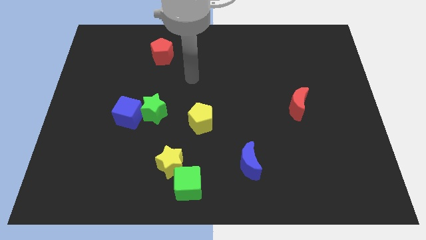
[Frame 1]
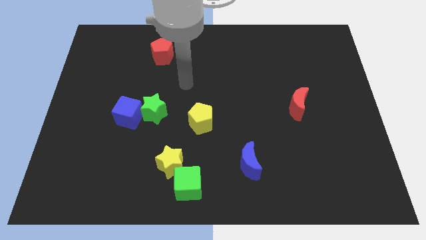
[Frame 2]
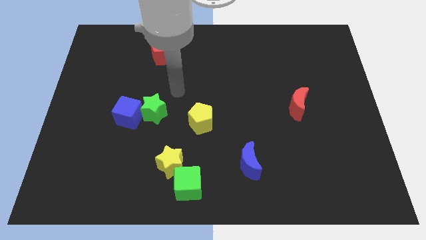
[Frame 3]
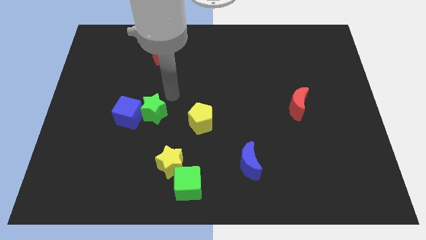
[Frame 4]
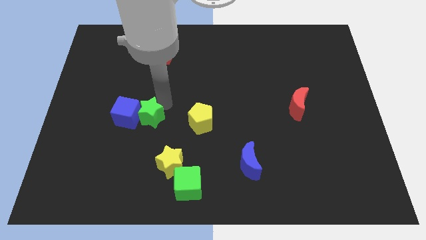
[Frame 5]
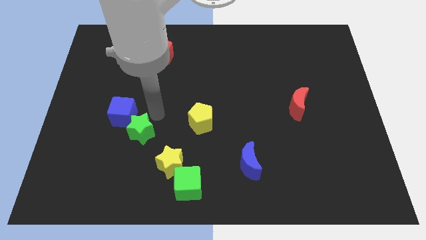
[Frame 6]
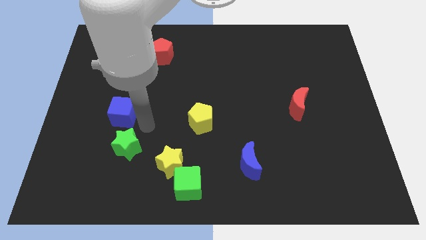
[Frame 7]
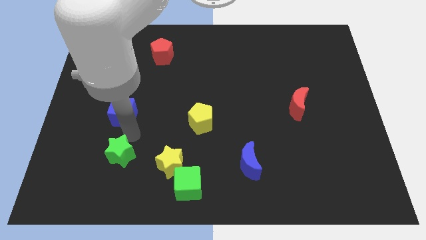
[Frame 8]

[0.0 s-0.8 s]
move the blue cube away from the green star

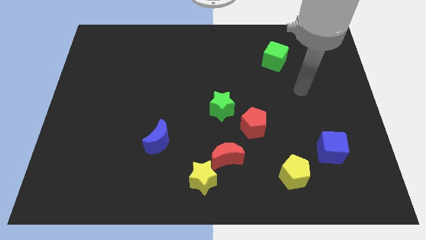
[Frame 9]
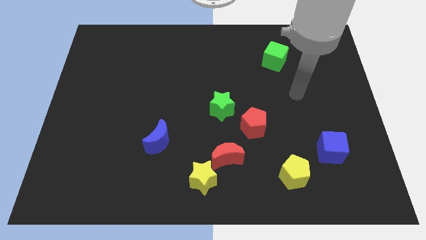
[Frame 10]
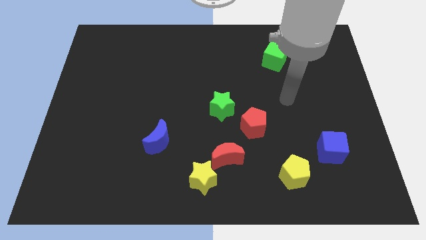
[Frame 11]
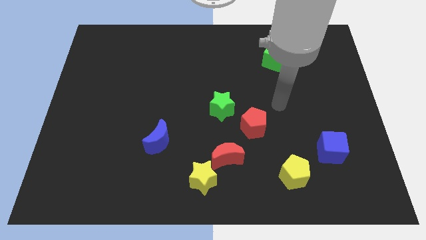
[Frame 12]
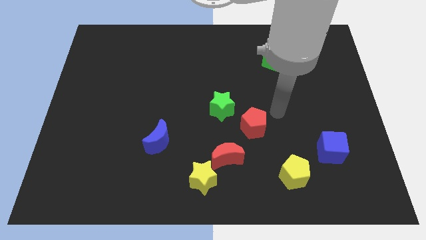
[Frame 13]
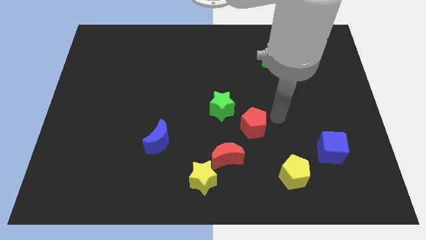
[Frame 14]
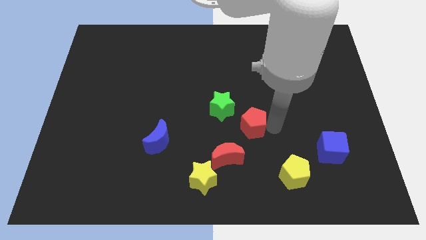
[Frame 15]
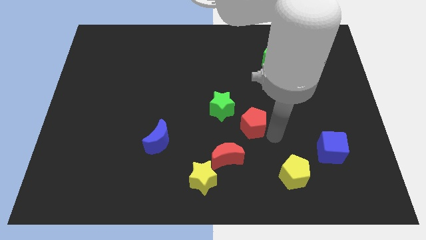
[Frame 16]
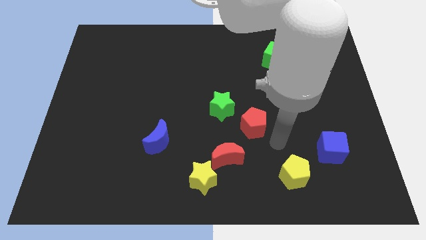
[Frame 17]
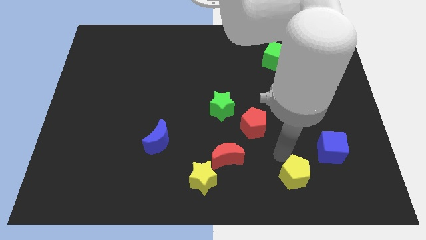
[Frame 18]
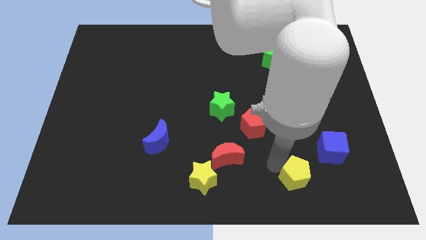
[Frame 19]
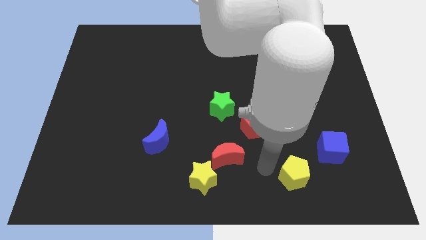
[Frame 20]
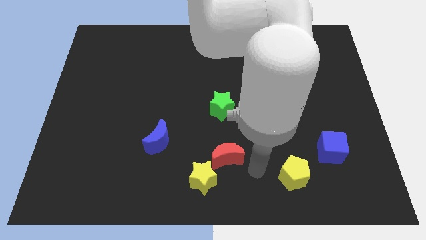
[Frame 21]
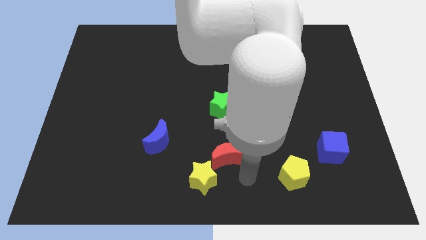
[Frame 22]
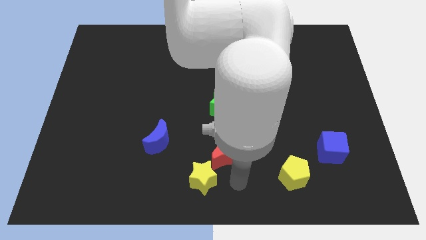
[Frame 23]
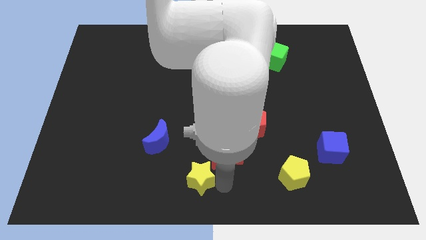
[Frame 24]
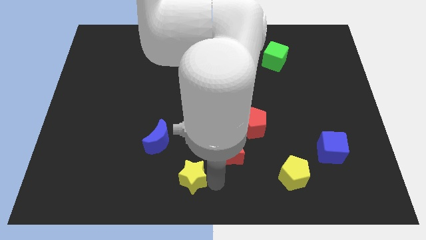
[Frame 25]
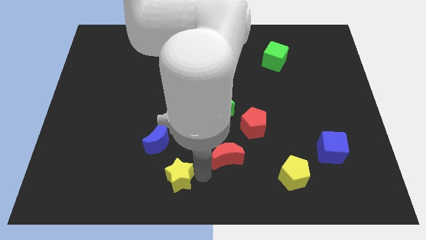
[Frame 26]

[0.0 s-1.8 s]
pull the red moon apart from the yellow star

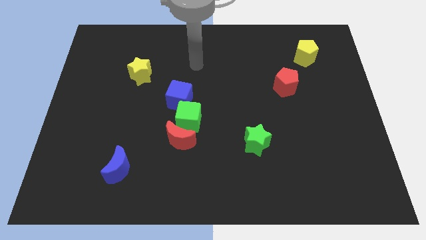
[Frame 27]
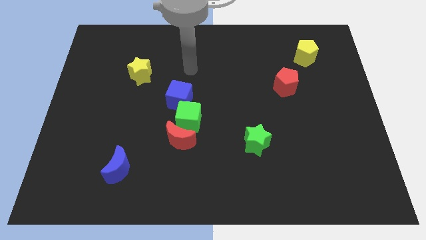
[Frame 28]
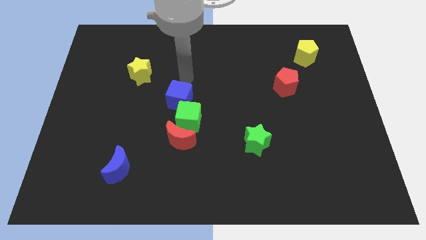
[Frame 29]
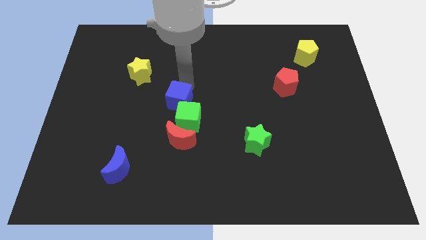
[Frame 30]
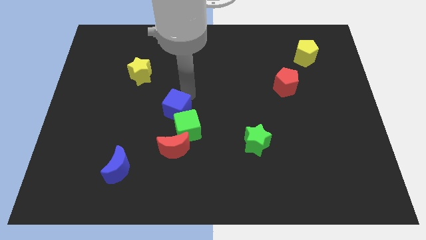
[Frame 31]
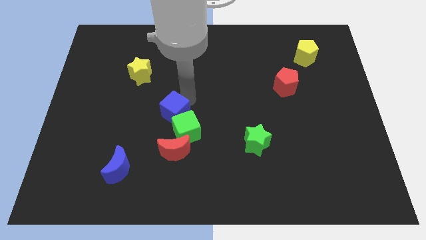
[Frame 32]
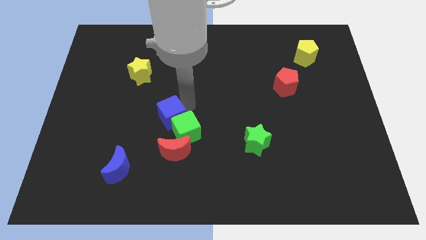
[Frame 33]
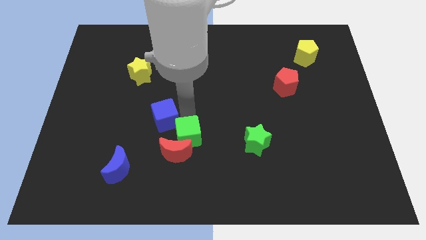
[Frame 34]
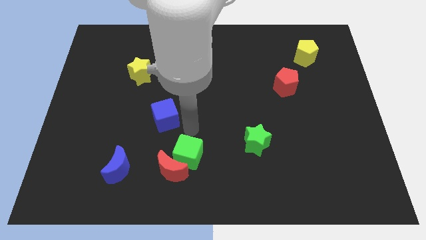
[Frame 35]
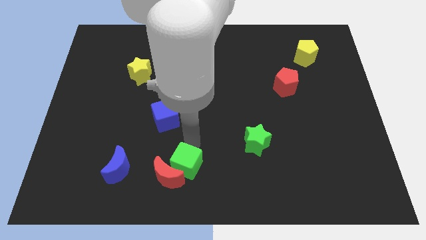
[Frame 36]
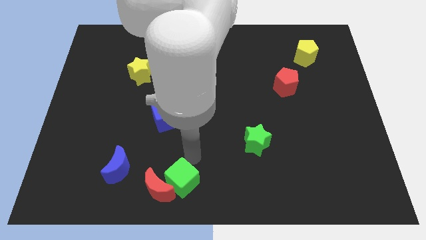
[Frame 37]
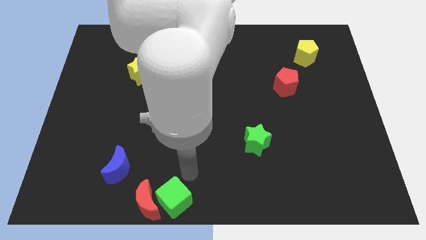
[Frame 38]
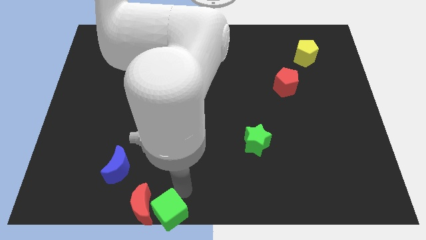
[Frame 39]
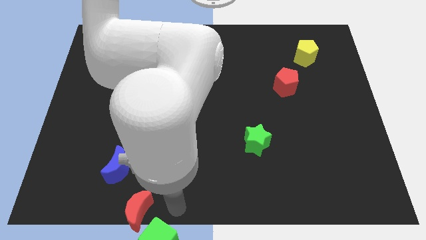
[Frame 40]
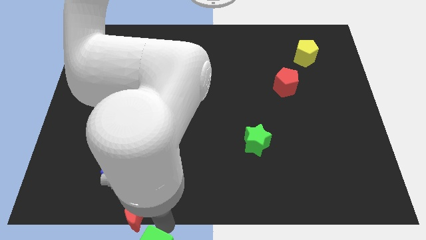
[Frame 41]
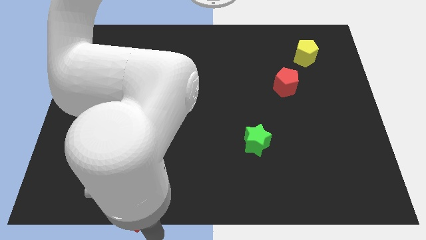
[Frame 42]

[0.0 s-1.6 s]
pull the red moon apart from the green cube

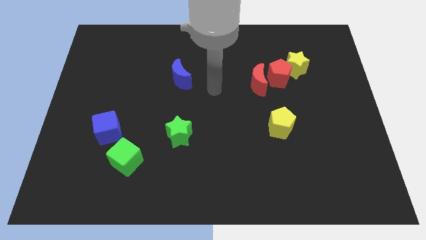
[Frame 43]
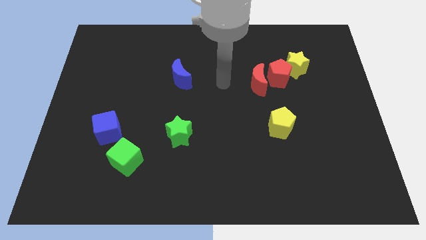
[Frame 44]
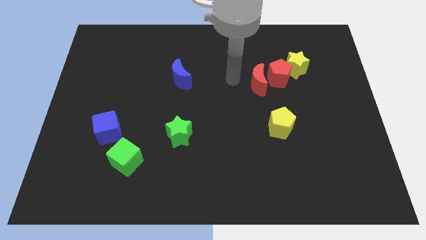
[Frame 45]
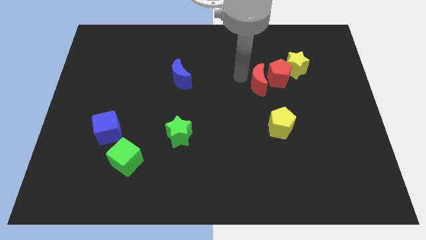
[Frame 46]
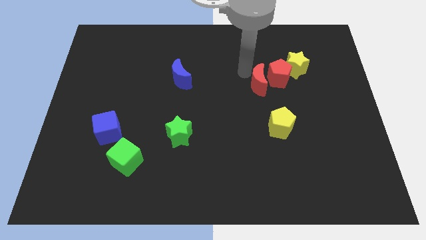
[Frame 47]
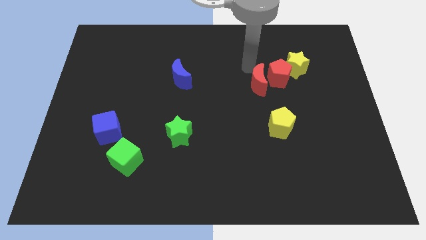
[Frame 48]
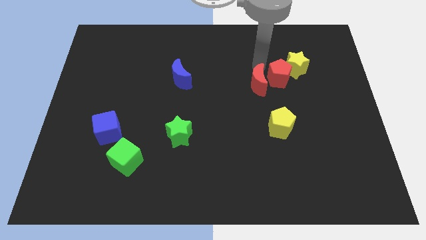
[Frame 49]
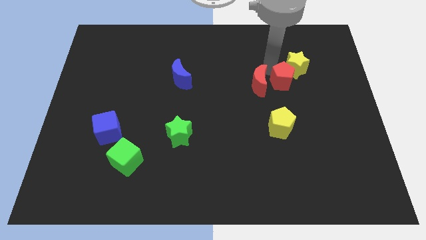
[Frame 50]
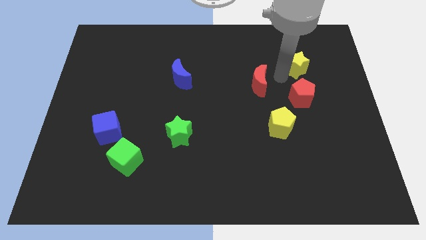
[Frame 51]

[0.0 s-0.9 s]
move the red moon away from the red pentagon

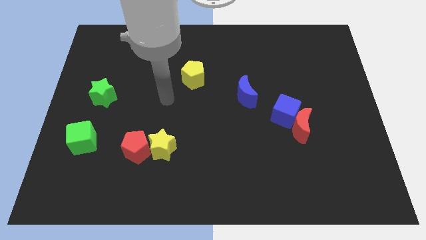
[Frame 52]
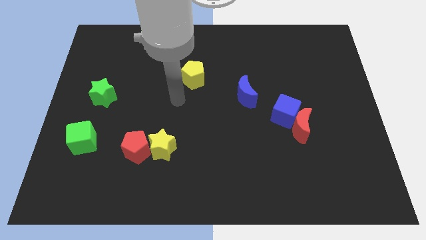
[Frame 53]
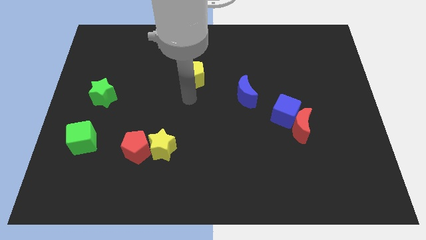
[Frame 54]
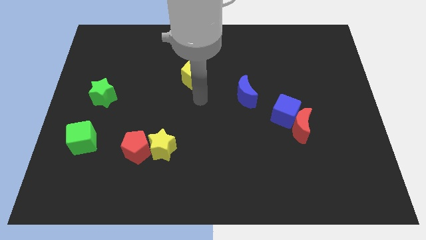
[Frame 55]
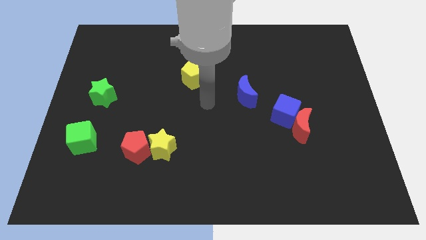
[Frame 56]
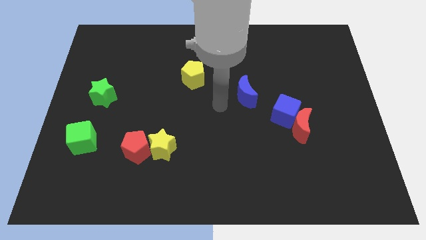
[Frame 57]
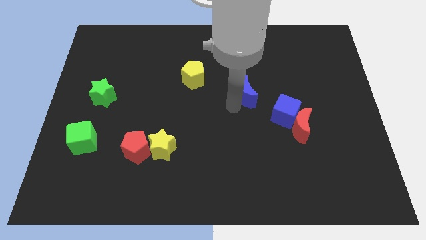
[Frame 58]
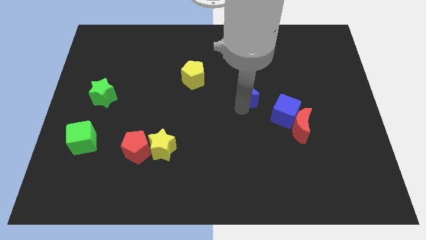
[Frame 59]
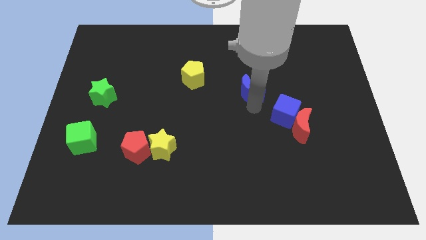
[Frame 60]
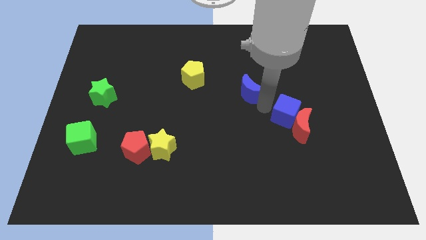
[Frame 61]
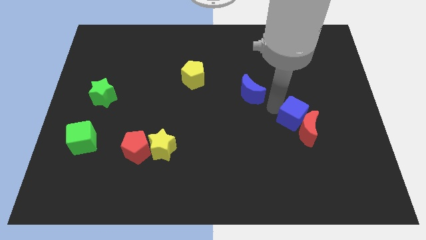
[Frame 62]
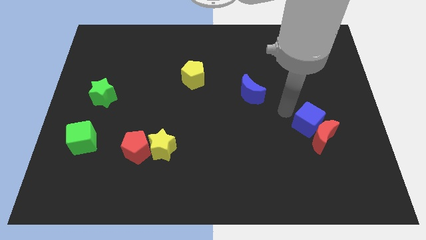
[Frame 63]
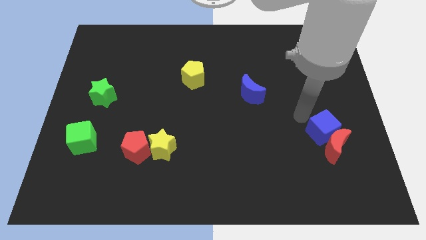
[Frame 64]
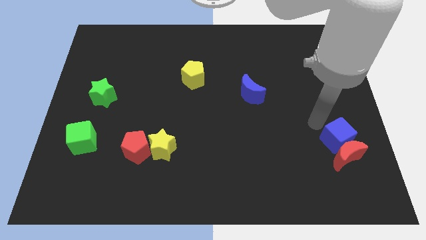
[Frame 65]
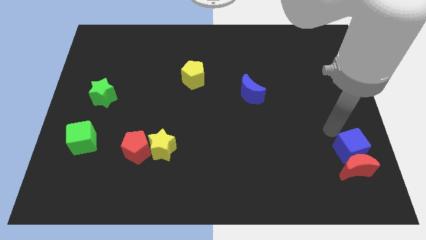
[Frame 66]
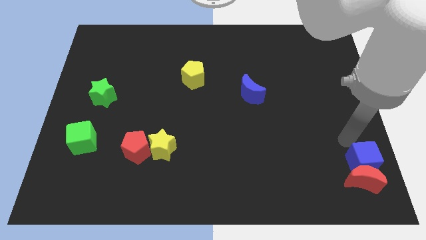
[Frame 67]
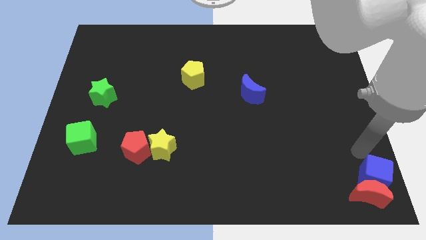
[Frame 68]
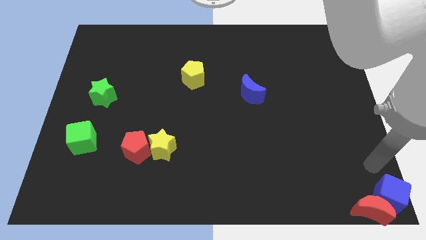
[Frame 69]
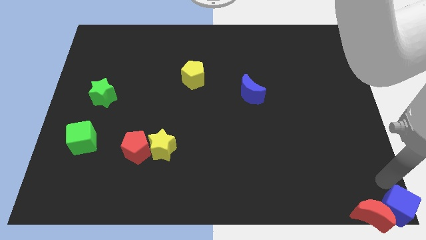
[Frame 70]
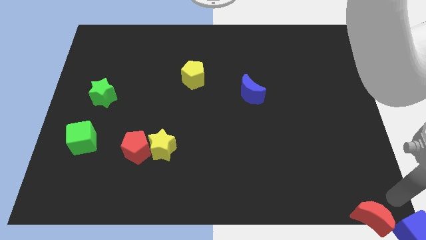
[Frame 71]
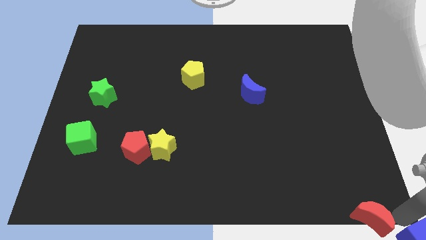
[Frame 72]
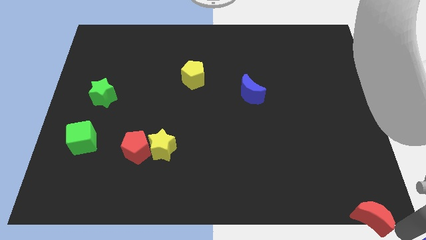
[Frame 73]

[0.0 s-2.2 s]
move the red moon away from the blue cube

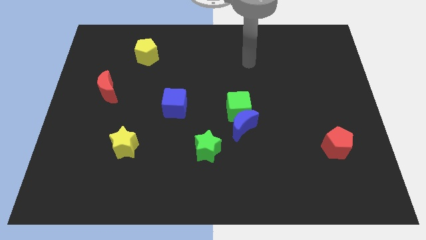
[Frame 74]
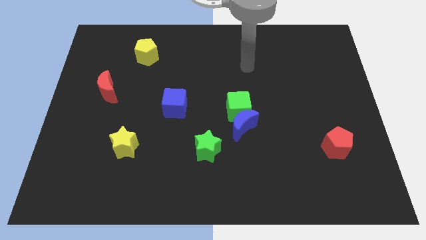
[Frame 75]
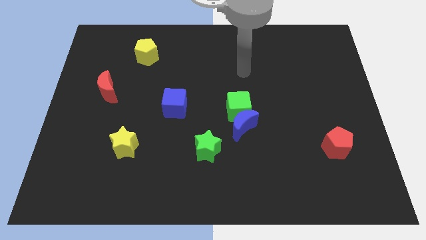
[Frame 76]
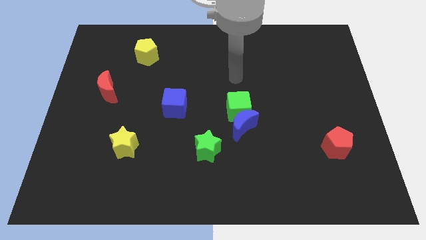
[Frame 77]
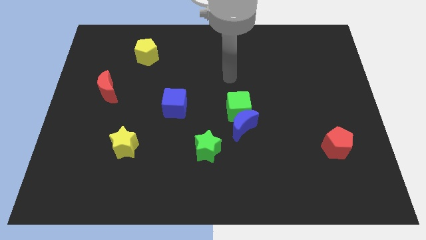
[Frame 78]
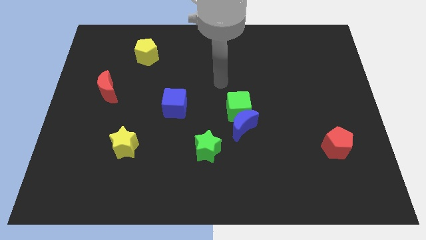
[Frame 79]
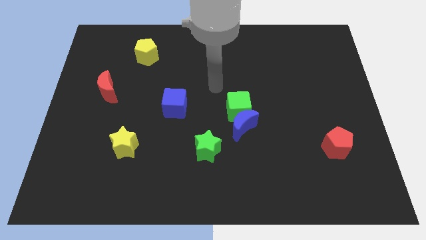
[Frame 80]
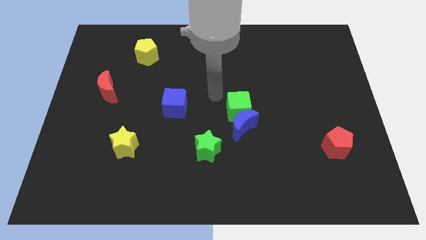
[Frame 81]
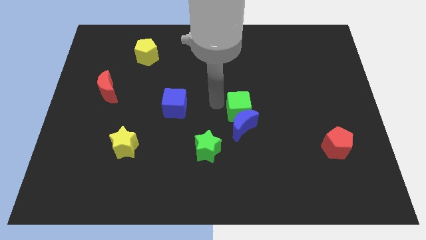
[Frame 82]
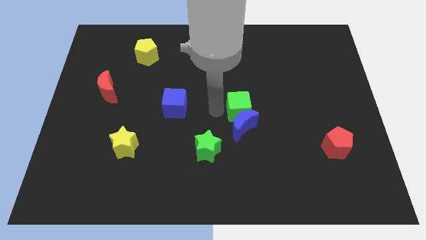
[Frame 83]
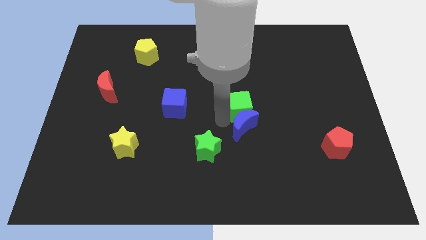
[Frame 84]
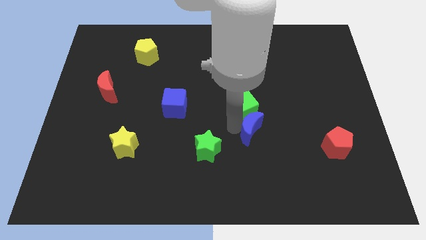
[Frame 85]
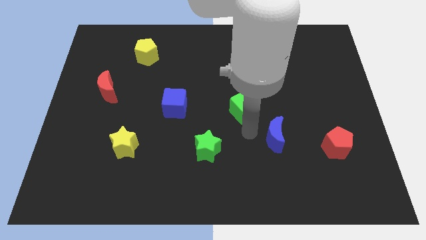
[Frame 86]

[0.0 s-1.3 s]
move the green cube away from the blue moon

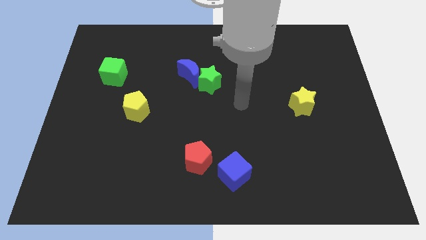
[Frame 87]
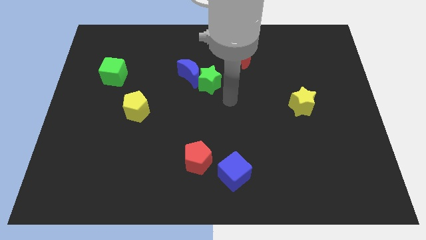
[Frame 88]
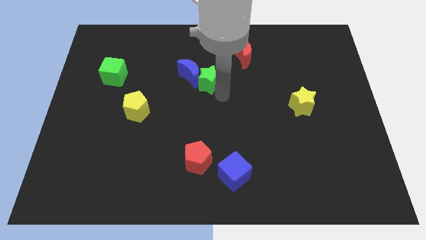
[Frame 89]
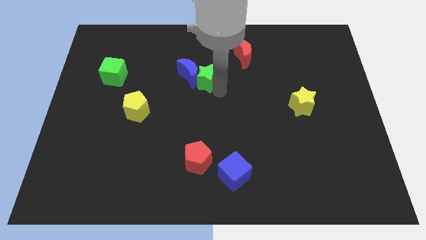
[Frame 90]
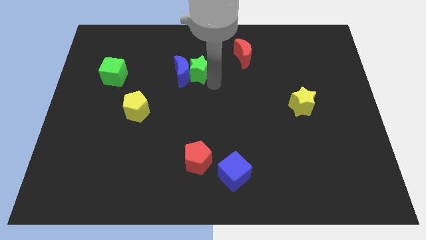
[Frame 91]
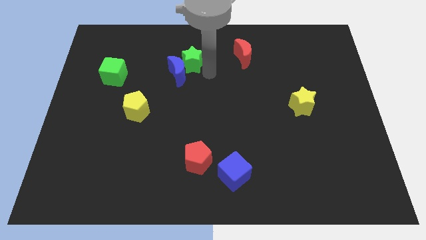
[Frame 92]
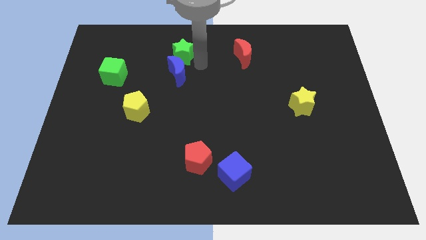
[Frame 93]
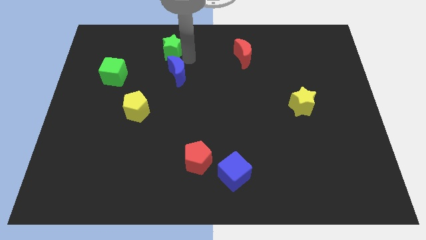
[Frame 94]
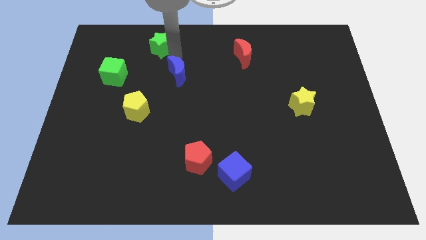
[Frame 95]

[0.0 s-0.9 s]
separate the blue moon from the green star

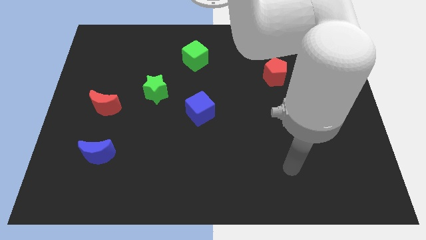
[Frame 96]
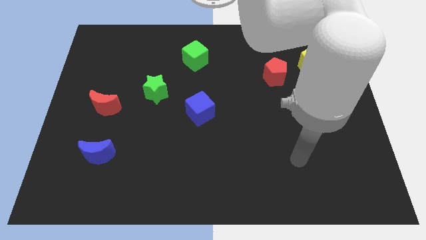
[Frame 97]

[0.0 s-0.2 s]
separate the yellow star from the yellow pentagon
